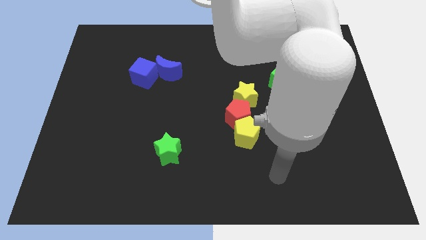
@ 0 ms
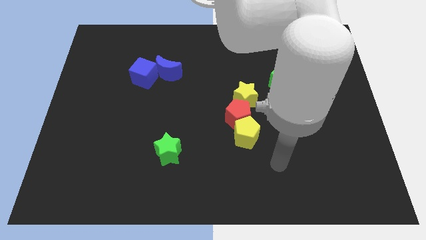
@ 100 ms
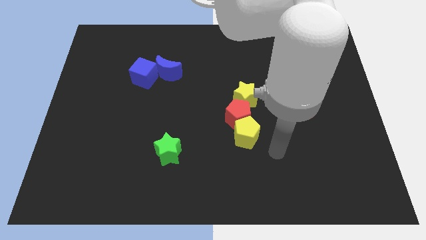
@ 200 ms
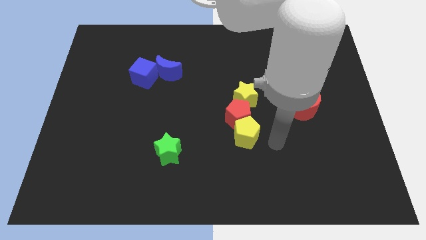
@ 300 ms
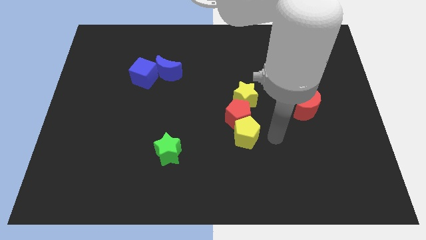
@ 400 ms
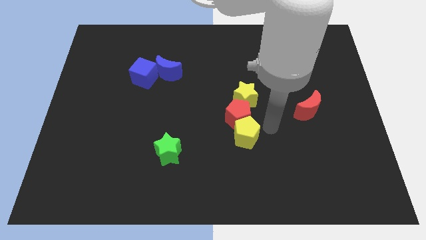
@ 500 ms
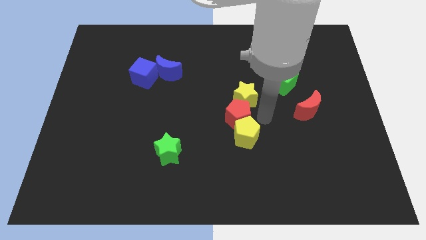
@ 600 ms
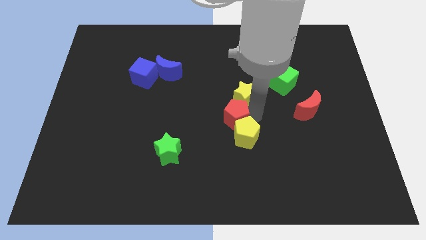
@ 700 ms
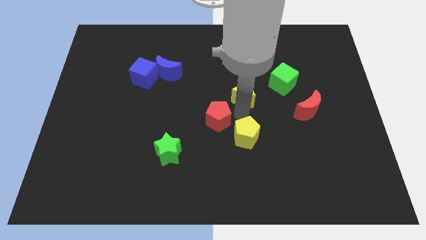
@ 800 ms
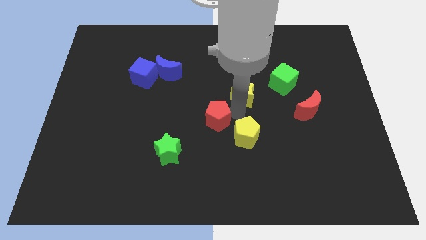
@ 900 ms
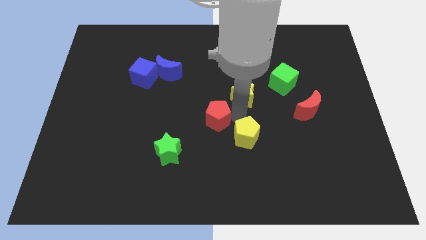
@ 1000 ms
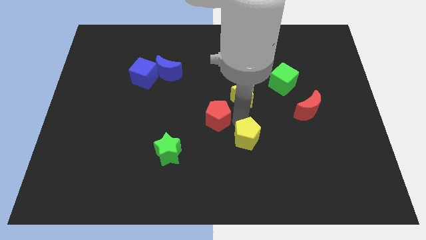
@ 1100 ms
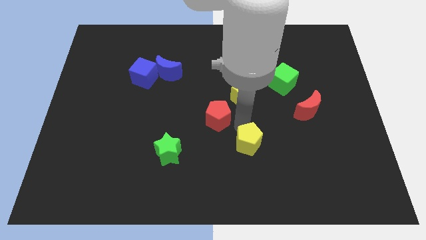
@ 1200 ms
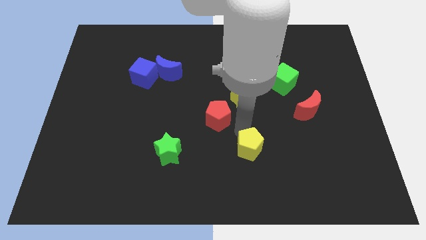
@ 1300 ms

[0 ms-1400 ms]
separate the yellow pentagon from the red pentagon

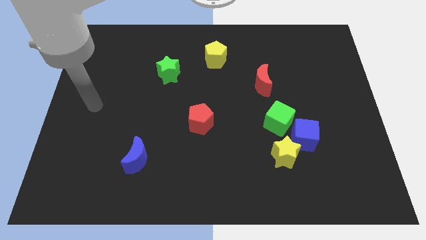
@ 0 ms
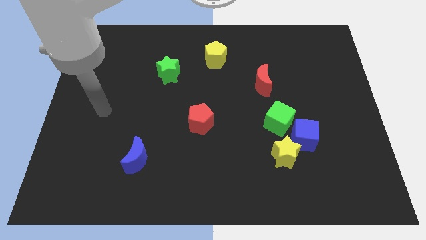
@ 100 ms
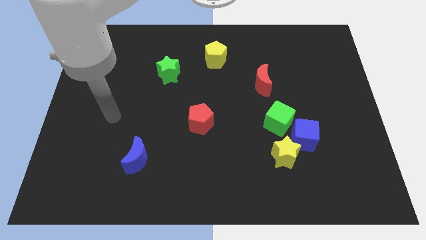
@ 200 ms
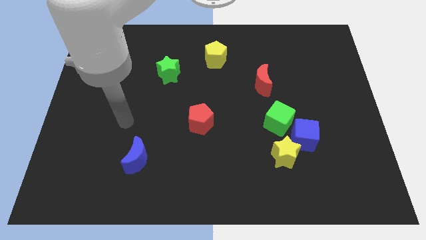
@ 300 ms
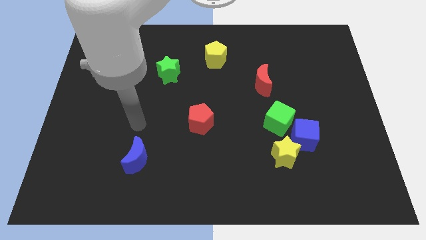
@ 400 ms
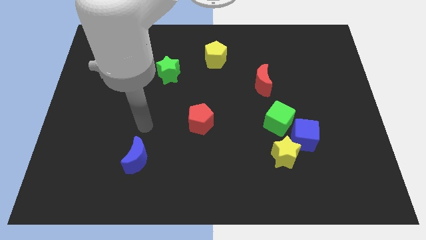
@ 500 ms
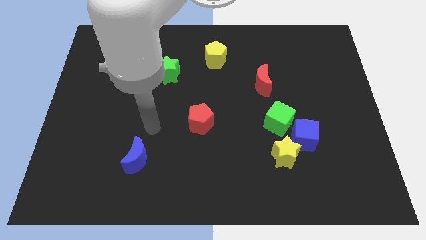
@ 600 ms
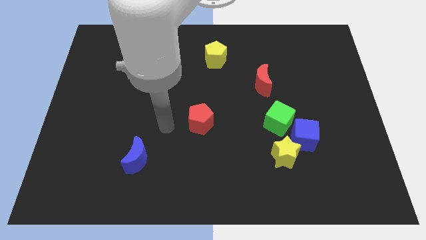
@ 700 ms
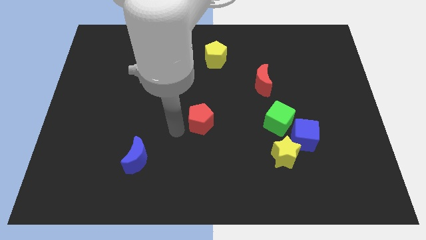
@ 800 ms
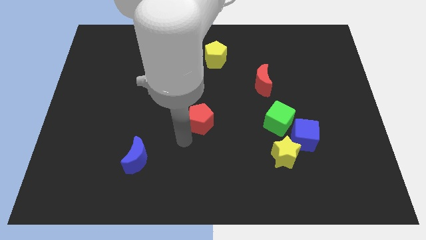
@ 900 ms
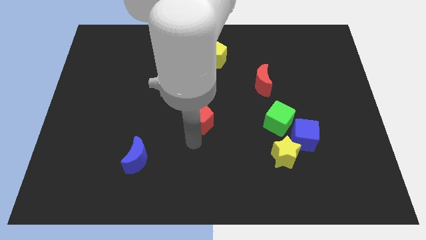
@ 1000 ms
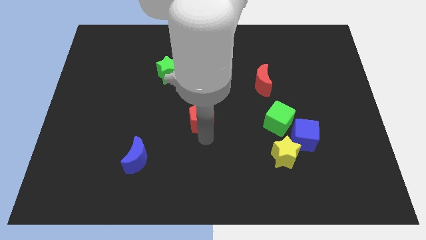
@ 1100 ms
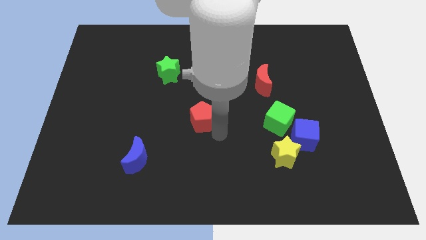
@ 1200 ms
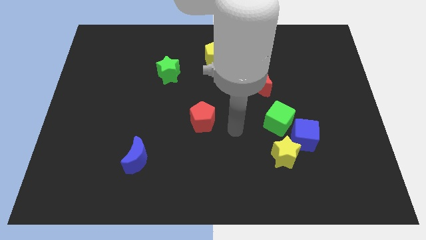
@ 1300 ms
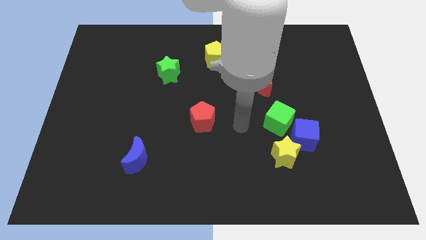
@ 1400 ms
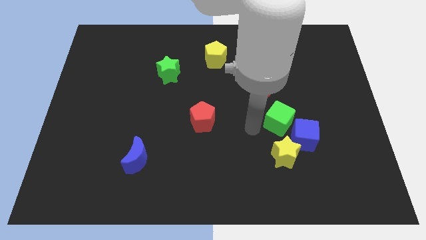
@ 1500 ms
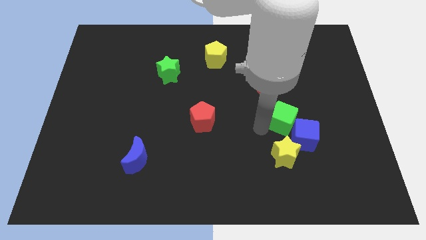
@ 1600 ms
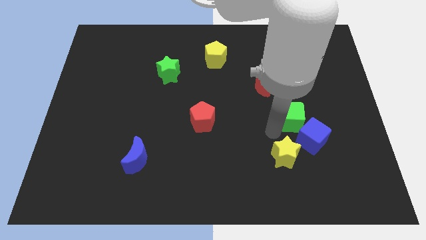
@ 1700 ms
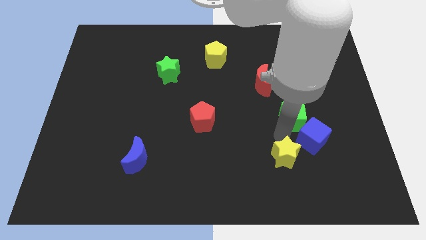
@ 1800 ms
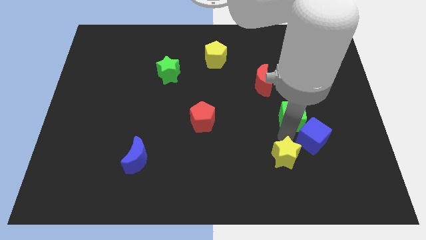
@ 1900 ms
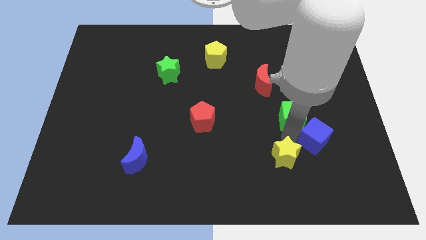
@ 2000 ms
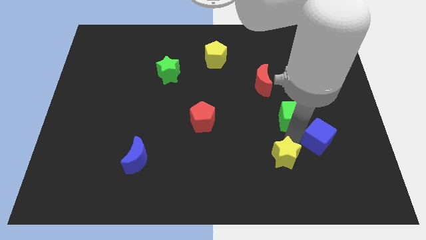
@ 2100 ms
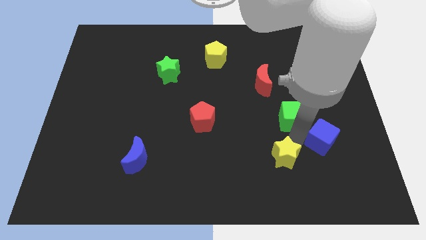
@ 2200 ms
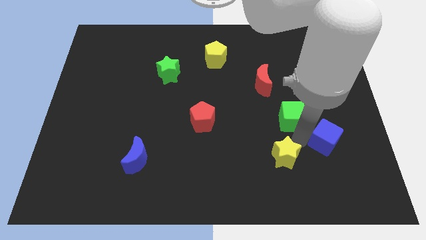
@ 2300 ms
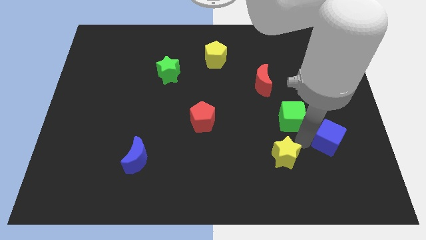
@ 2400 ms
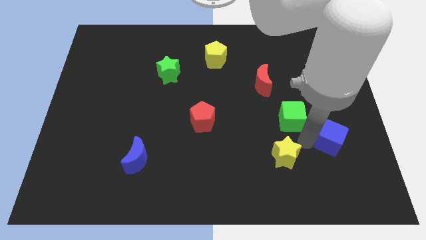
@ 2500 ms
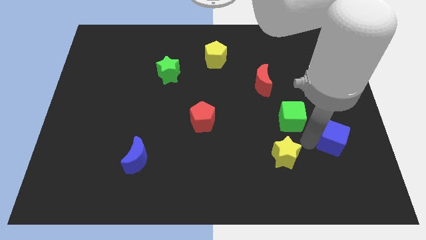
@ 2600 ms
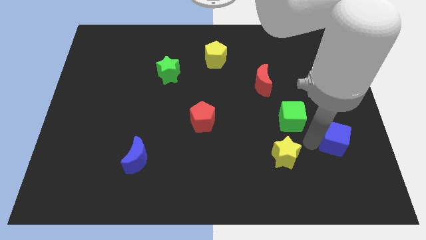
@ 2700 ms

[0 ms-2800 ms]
pull the blue cube apart from the yellow star and green cube

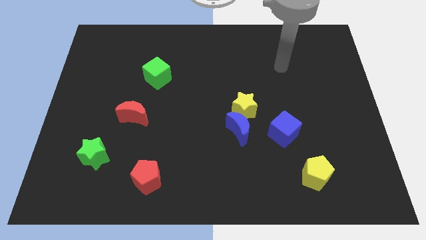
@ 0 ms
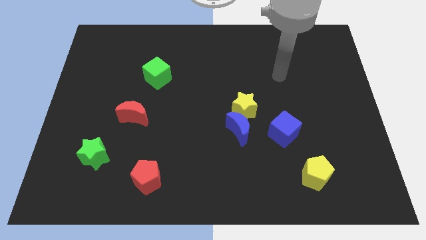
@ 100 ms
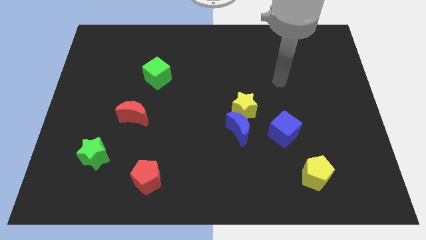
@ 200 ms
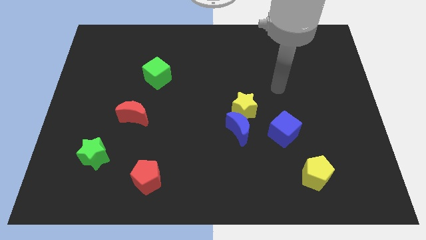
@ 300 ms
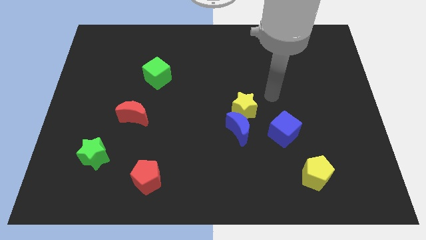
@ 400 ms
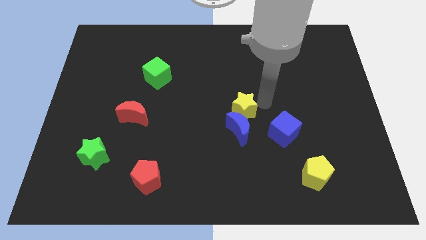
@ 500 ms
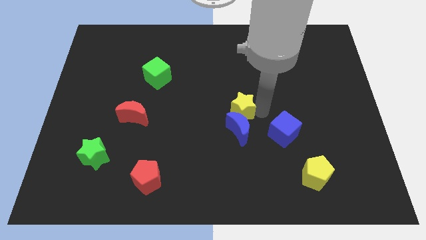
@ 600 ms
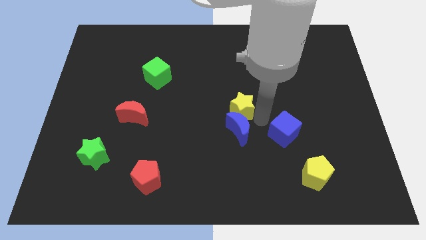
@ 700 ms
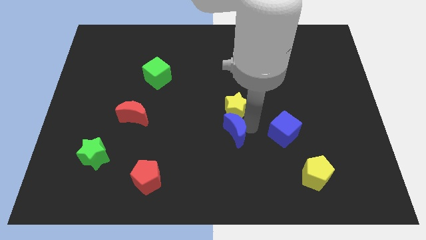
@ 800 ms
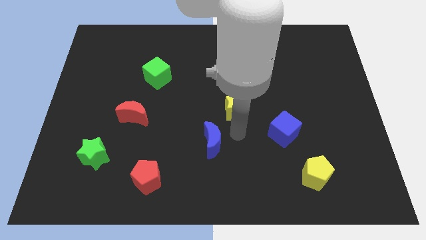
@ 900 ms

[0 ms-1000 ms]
separate the yellow star from the blue moon

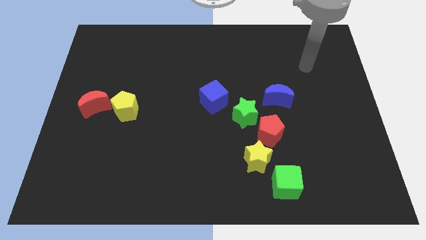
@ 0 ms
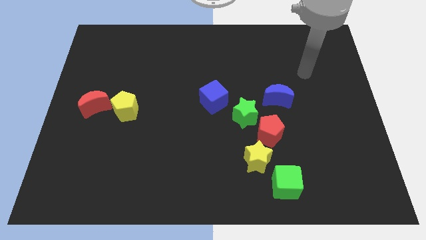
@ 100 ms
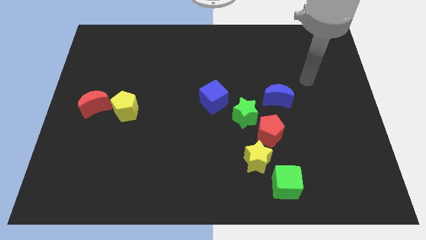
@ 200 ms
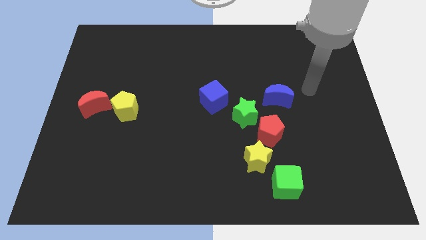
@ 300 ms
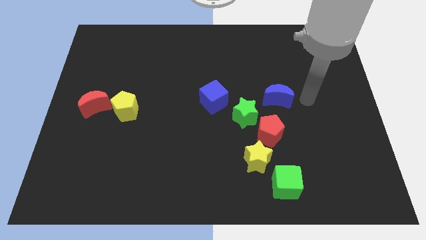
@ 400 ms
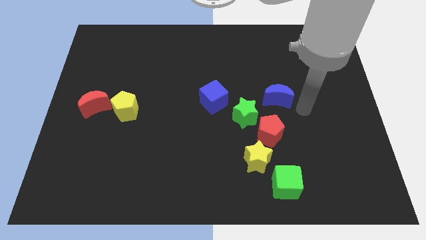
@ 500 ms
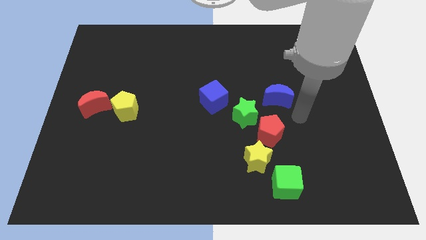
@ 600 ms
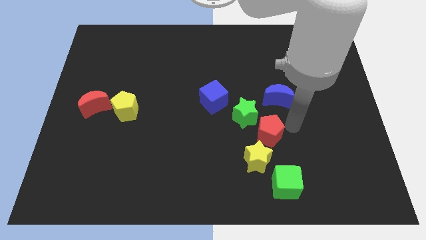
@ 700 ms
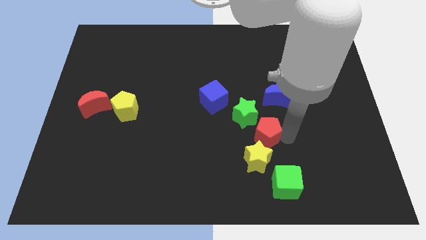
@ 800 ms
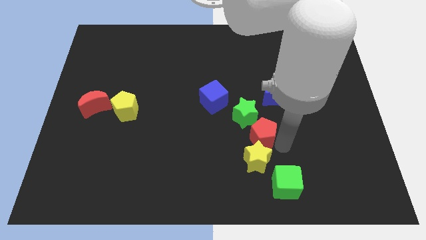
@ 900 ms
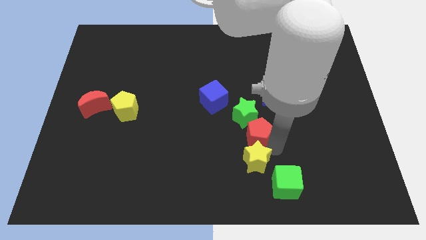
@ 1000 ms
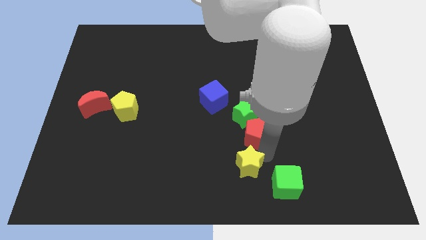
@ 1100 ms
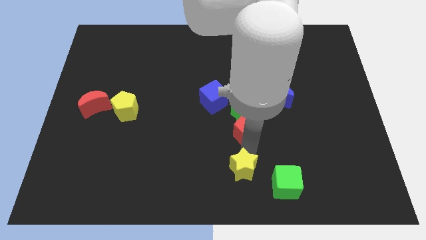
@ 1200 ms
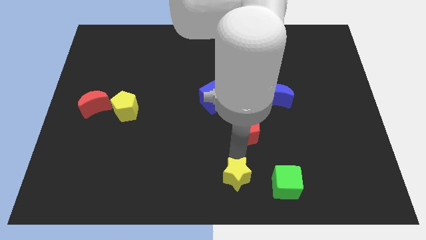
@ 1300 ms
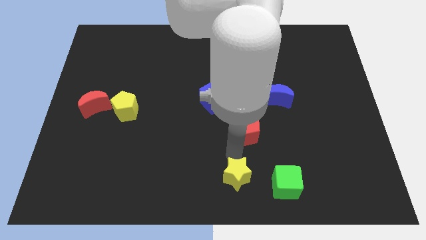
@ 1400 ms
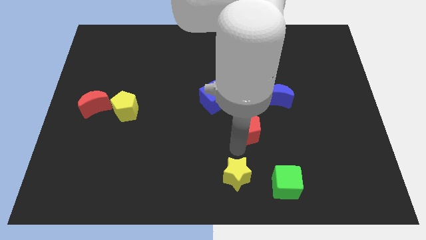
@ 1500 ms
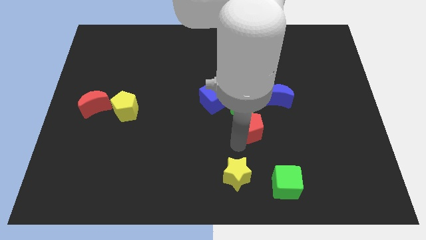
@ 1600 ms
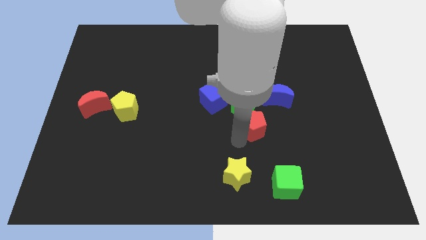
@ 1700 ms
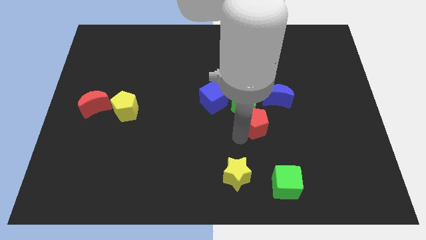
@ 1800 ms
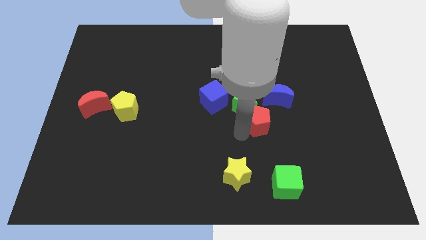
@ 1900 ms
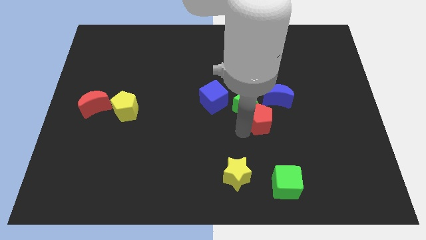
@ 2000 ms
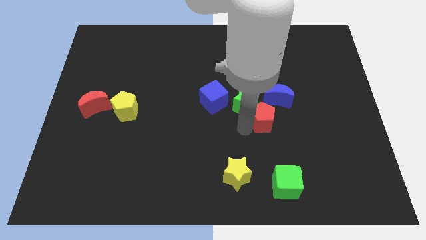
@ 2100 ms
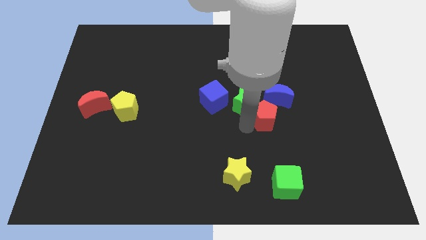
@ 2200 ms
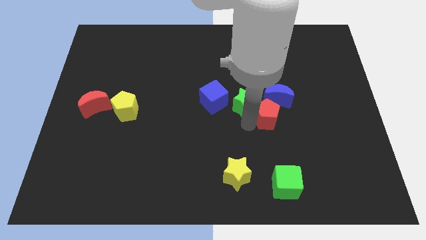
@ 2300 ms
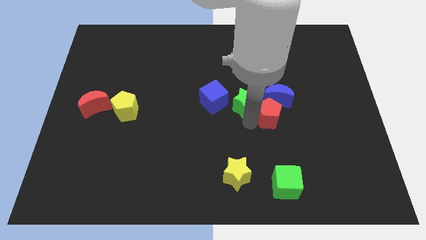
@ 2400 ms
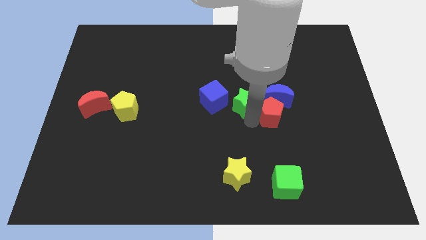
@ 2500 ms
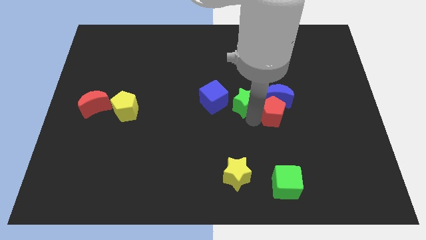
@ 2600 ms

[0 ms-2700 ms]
separate the red pentagon from the green star and yellow star

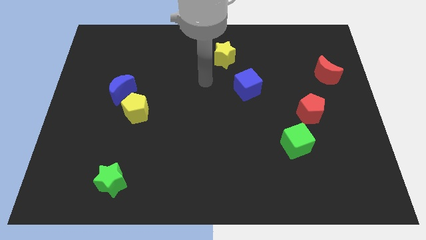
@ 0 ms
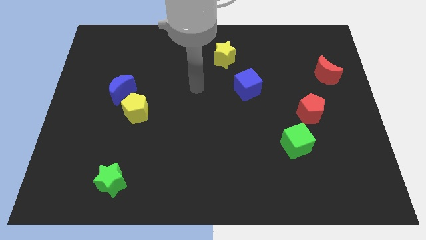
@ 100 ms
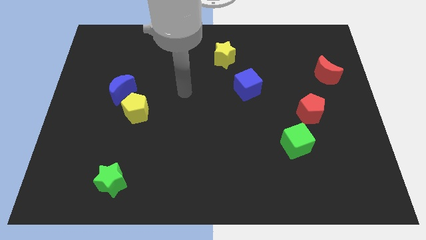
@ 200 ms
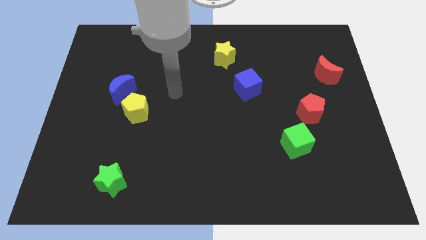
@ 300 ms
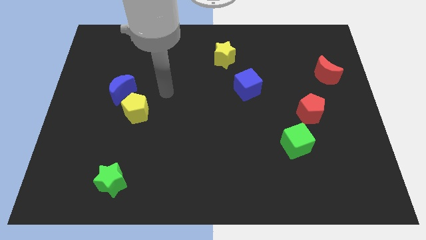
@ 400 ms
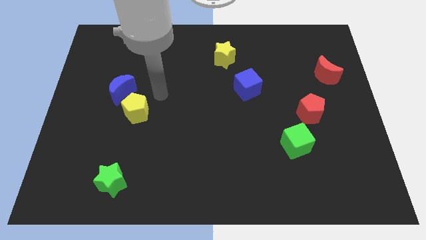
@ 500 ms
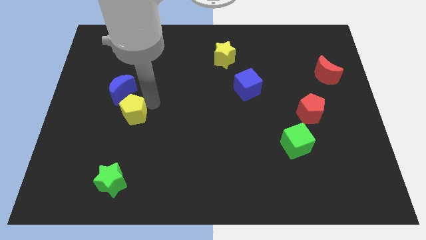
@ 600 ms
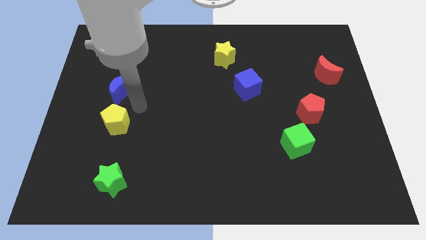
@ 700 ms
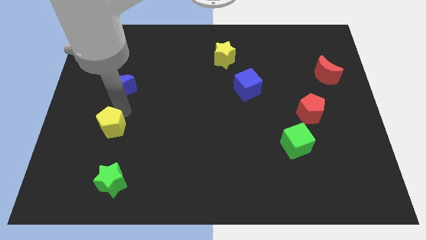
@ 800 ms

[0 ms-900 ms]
pull the blue moon apart from the yellow pentagon

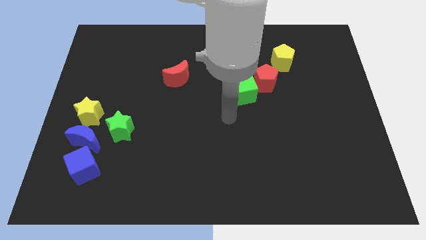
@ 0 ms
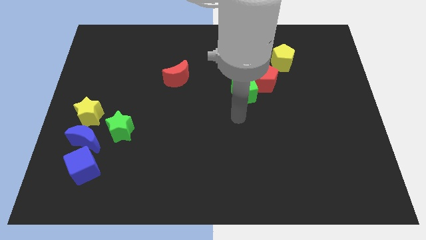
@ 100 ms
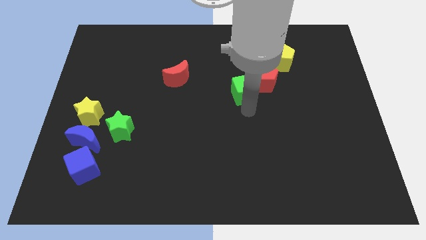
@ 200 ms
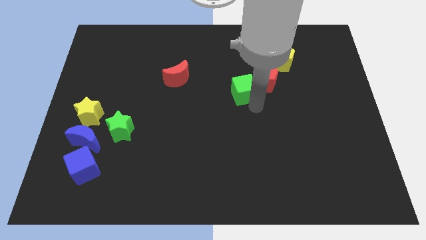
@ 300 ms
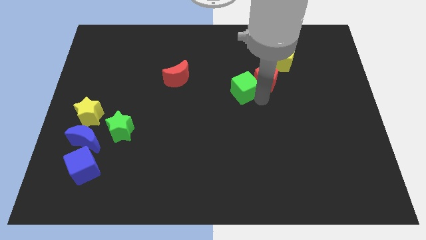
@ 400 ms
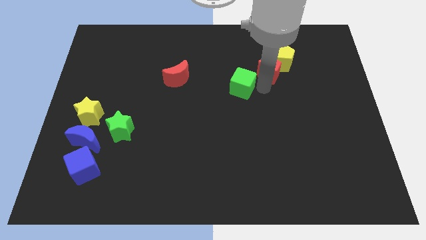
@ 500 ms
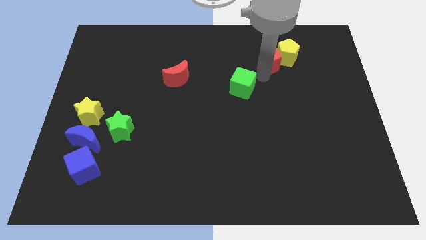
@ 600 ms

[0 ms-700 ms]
pull the green cube apart from the red pentagon
